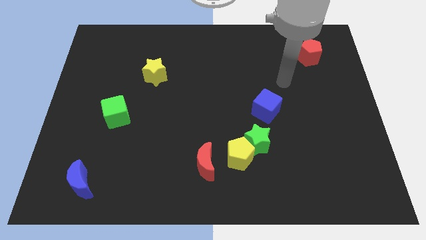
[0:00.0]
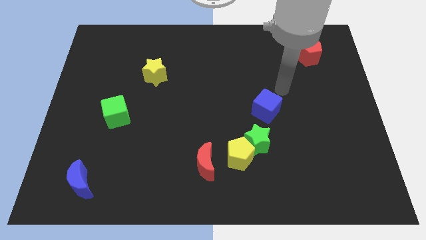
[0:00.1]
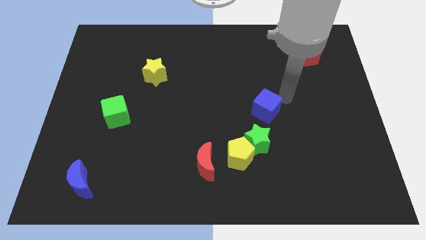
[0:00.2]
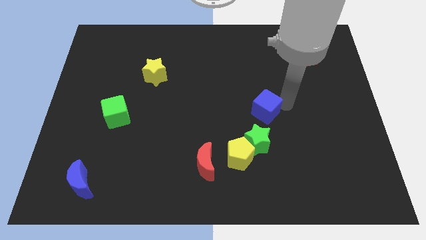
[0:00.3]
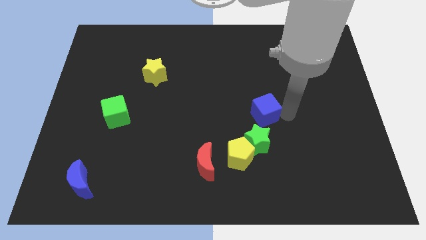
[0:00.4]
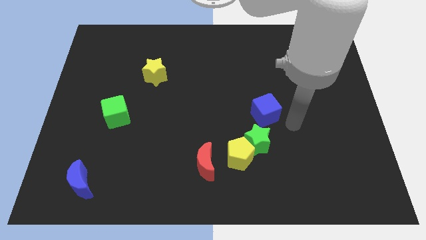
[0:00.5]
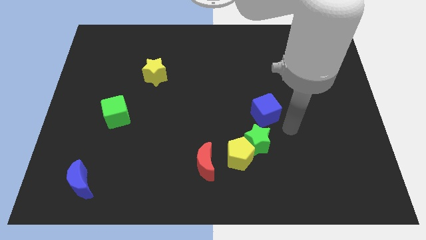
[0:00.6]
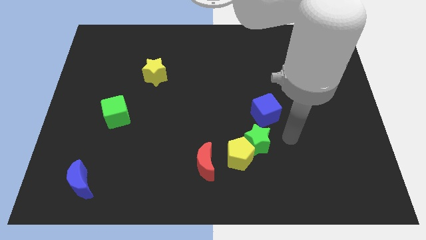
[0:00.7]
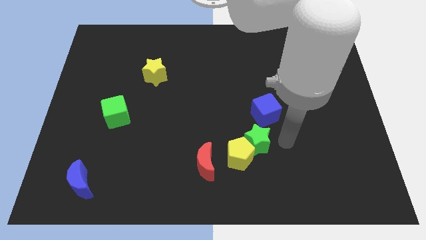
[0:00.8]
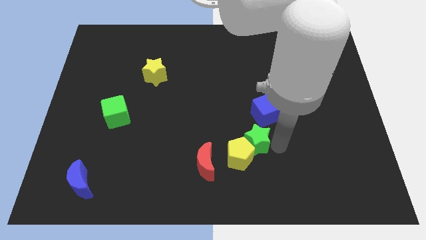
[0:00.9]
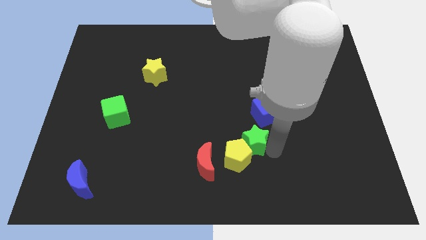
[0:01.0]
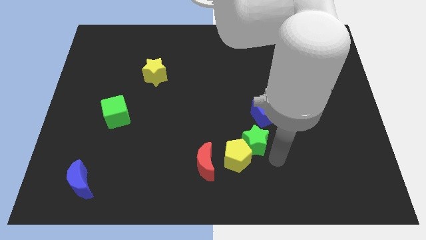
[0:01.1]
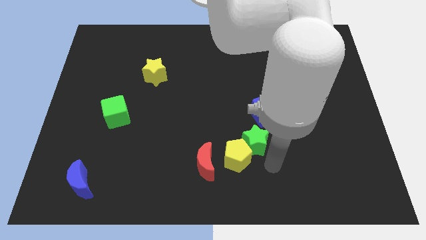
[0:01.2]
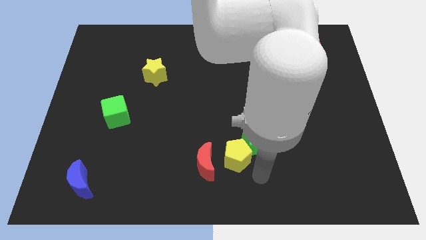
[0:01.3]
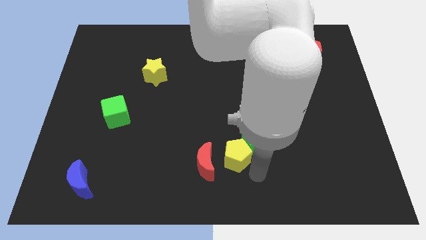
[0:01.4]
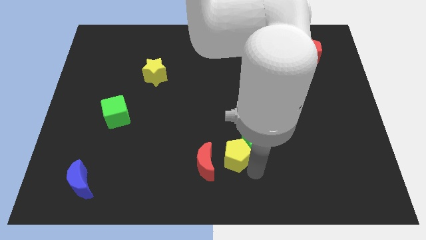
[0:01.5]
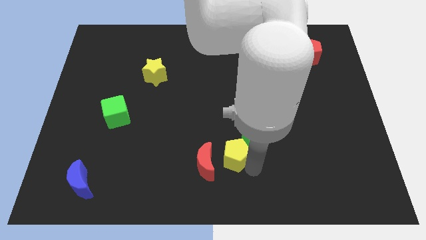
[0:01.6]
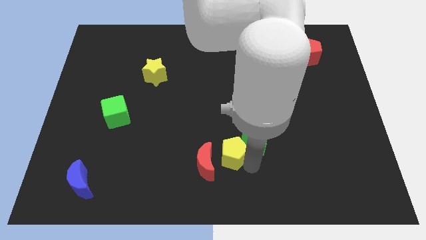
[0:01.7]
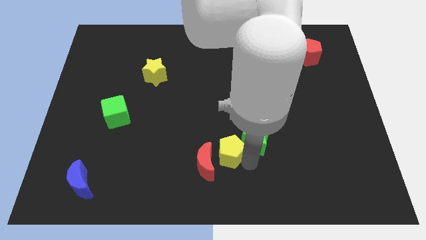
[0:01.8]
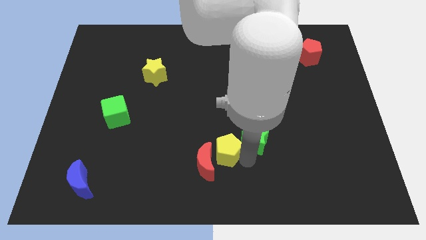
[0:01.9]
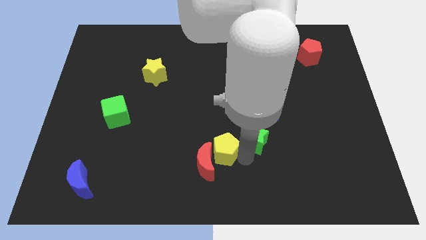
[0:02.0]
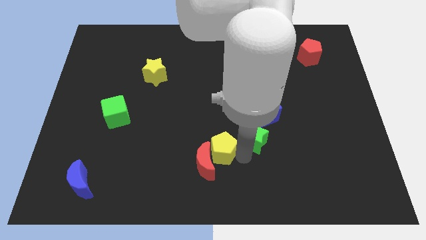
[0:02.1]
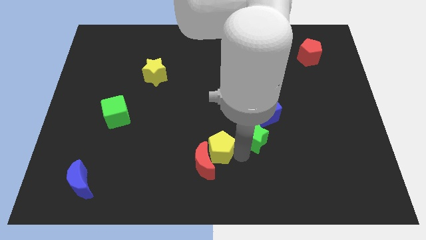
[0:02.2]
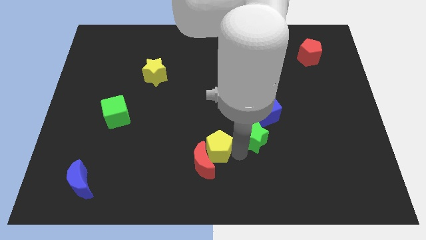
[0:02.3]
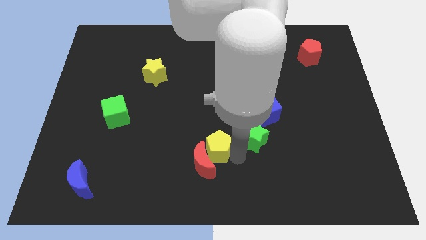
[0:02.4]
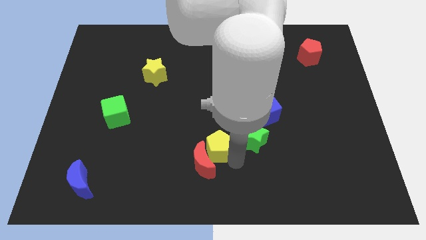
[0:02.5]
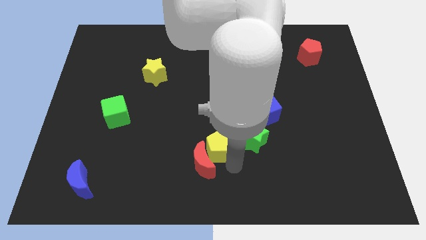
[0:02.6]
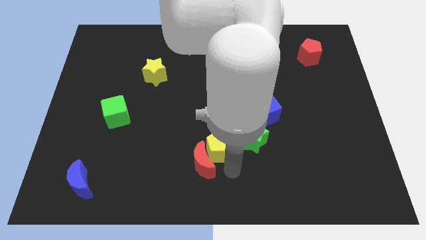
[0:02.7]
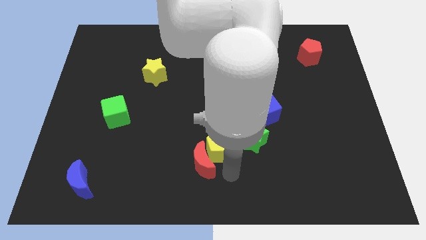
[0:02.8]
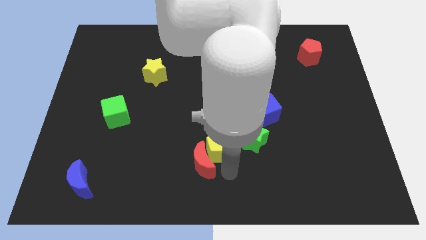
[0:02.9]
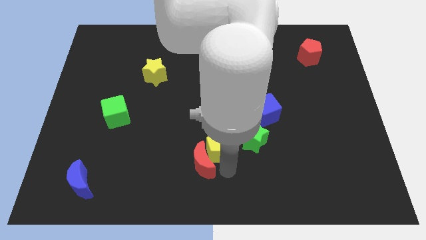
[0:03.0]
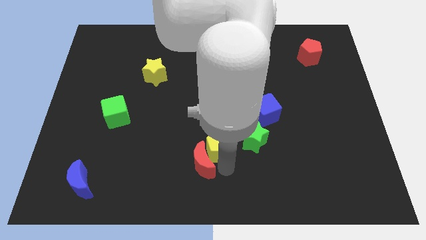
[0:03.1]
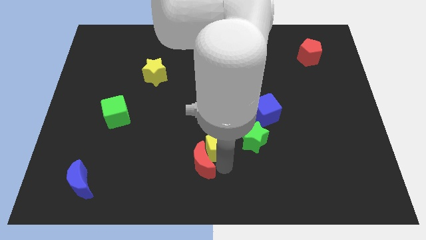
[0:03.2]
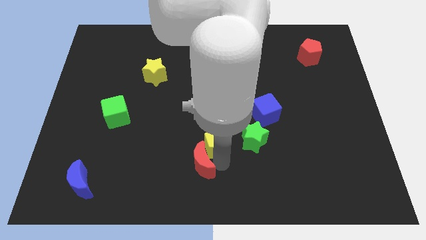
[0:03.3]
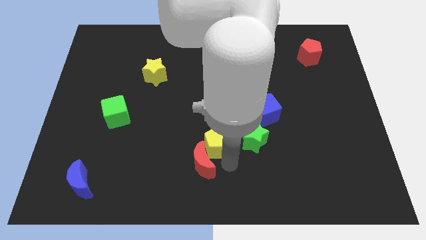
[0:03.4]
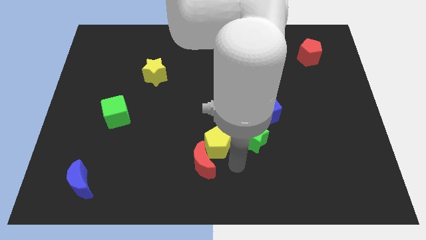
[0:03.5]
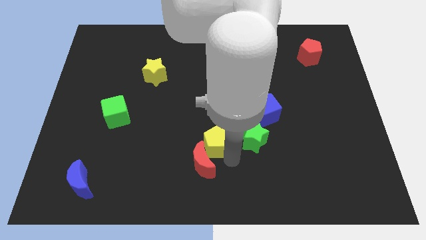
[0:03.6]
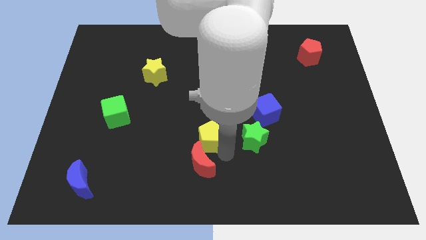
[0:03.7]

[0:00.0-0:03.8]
slightly push the yellow pentagon up and left

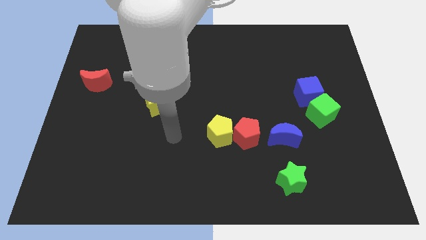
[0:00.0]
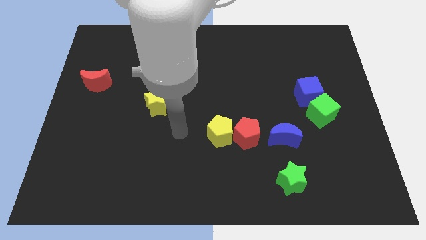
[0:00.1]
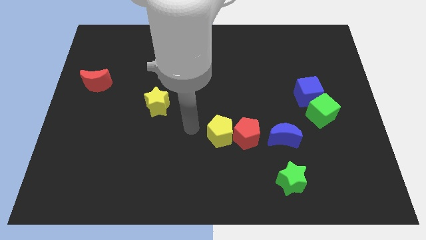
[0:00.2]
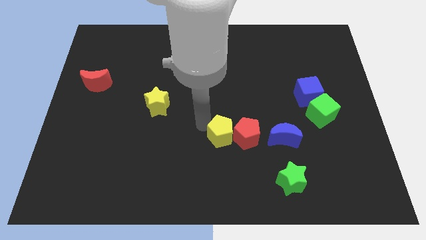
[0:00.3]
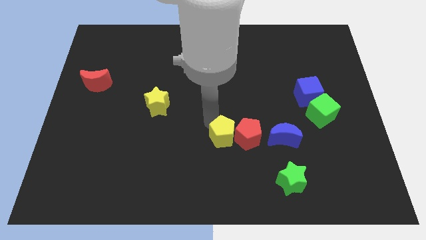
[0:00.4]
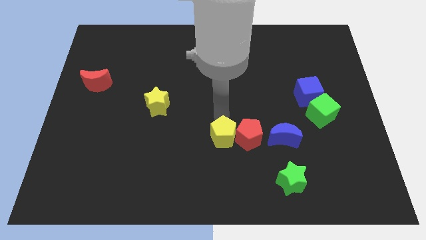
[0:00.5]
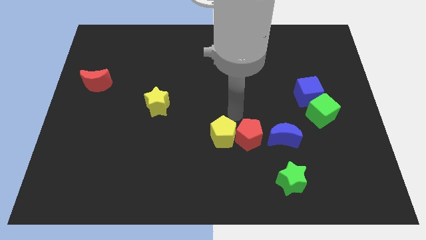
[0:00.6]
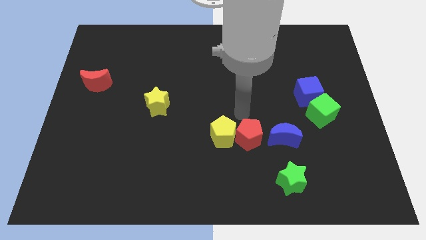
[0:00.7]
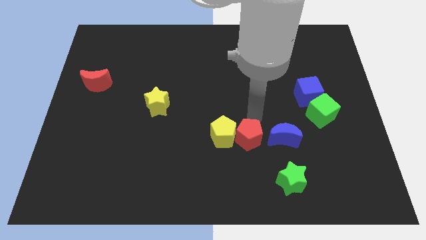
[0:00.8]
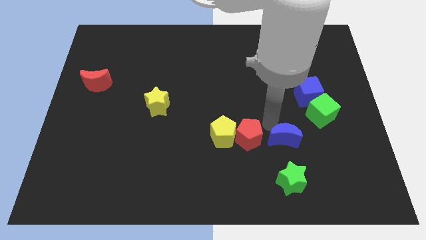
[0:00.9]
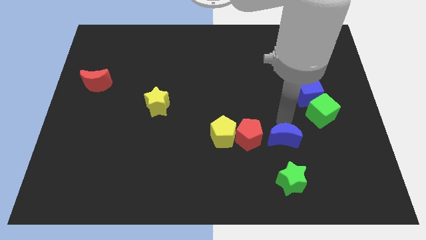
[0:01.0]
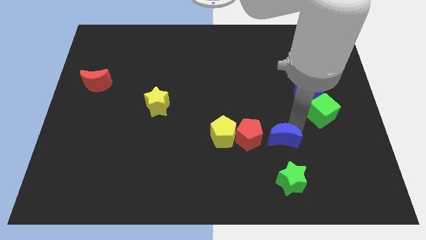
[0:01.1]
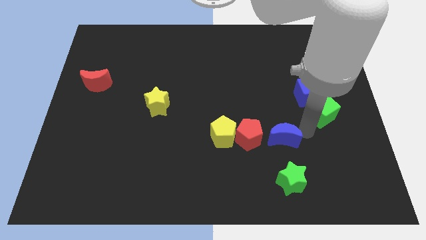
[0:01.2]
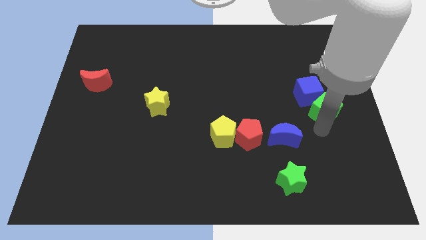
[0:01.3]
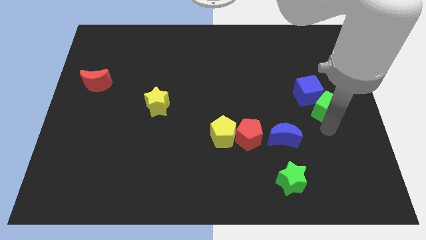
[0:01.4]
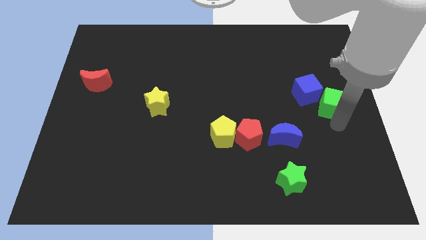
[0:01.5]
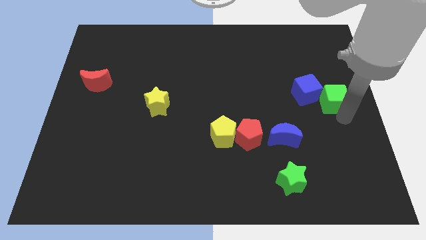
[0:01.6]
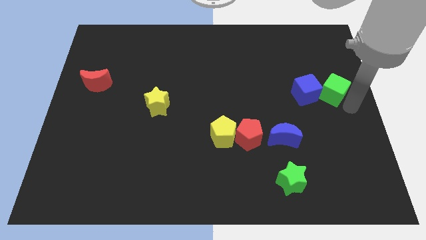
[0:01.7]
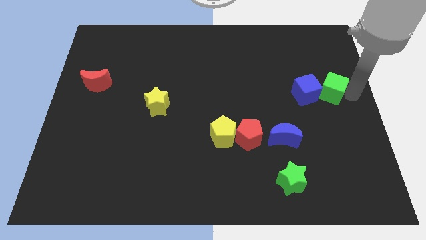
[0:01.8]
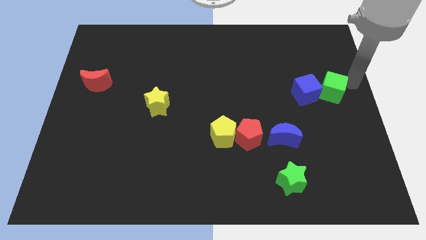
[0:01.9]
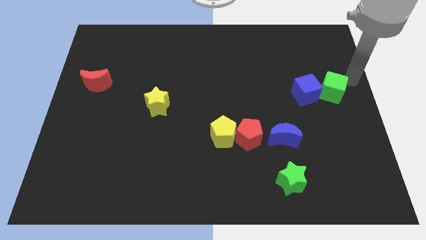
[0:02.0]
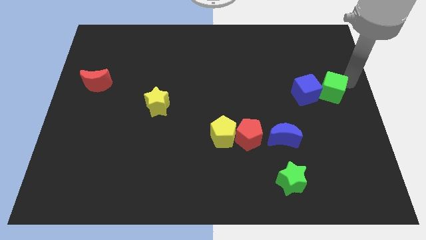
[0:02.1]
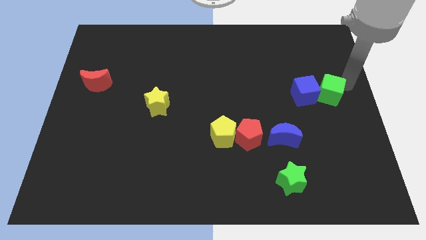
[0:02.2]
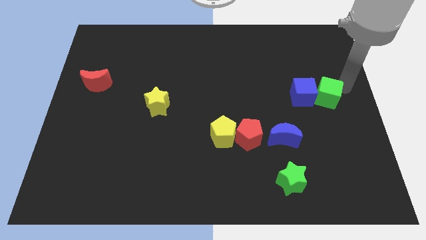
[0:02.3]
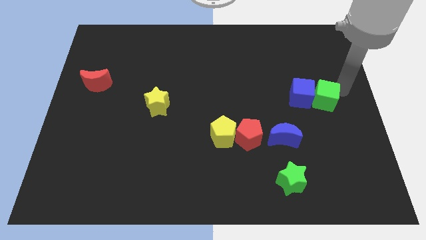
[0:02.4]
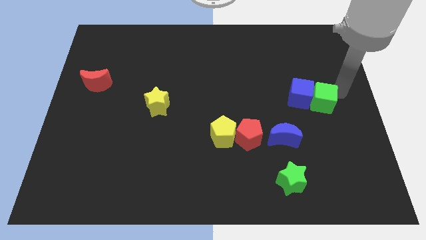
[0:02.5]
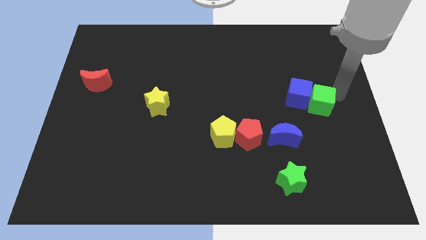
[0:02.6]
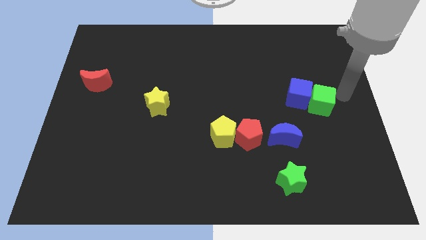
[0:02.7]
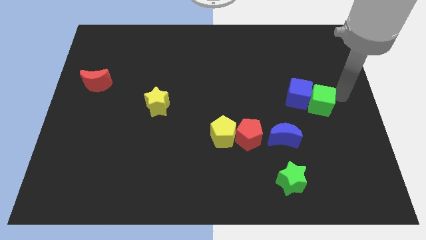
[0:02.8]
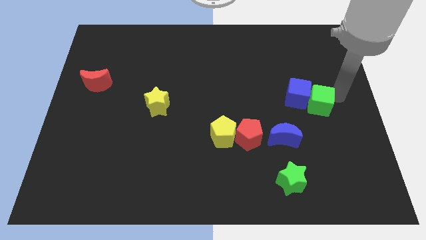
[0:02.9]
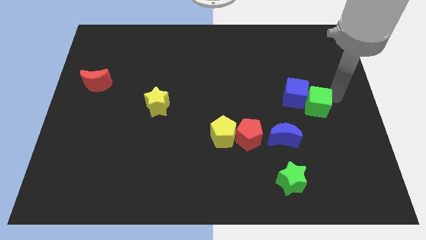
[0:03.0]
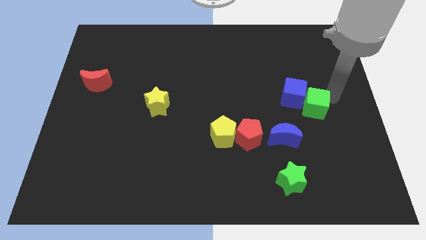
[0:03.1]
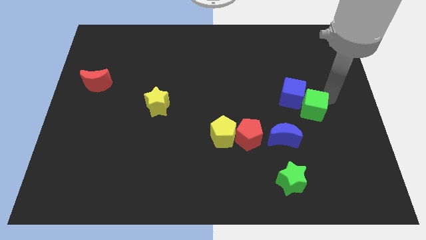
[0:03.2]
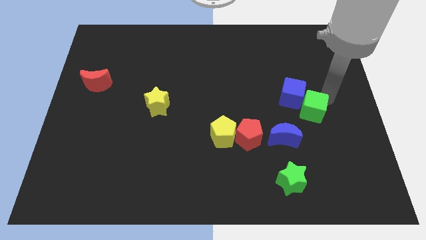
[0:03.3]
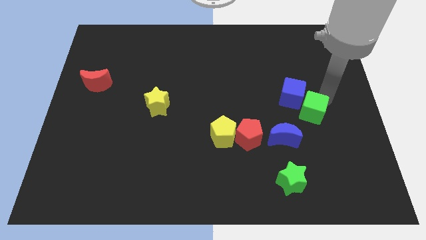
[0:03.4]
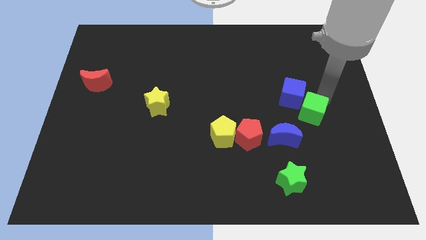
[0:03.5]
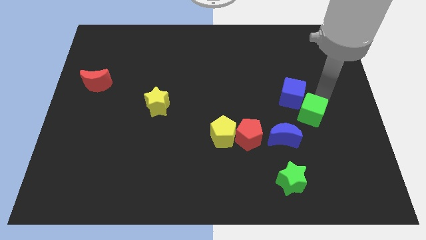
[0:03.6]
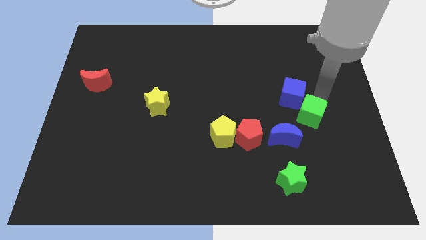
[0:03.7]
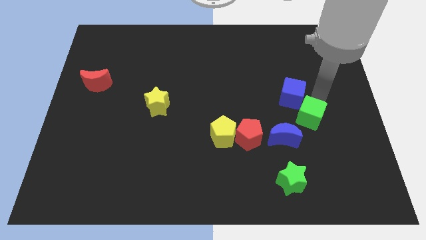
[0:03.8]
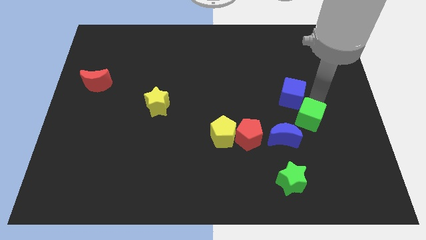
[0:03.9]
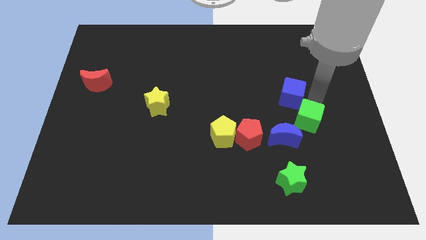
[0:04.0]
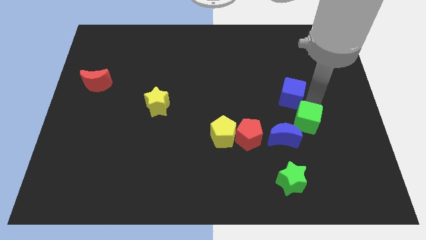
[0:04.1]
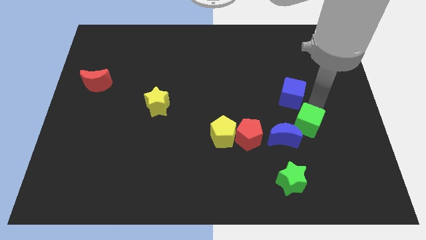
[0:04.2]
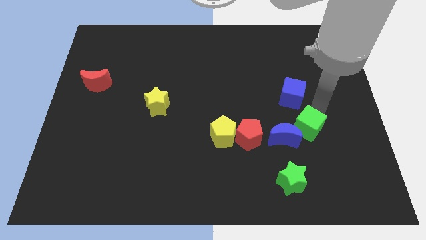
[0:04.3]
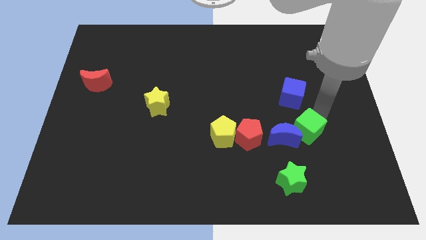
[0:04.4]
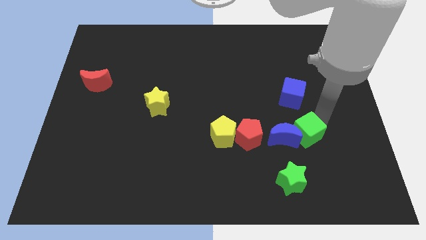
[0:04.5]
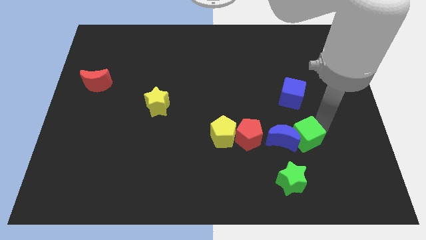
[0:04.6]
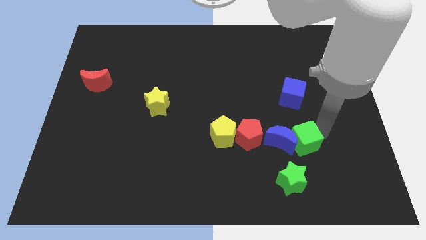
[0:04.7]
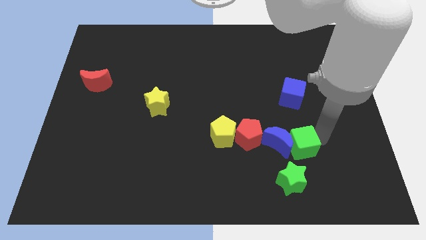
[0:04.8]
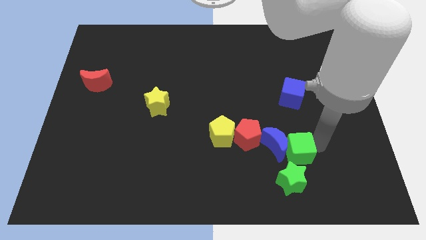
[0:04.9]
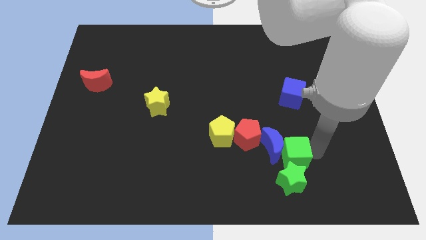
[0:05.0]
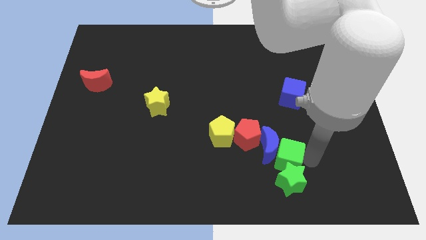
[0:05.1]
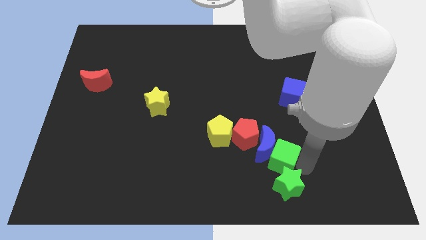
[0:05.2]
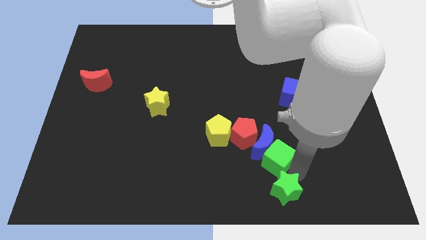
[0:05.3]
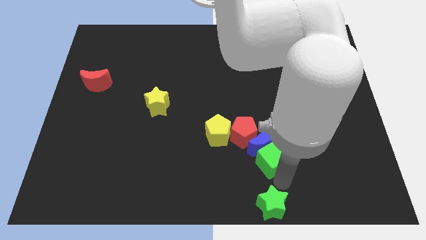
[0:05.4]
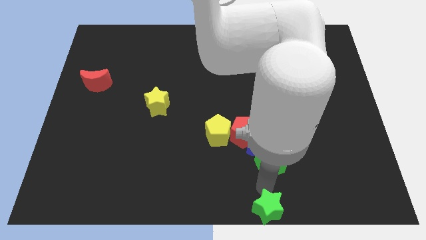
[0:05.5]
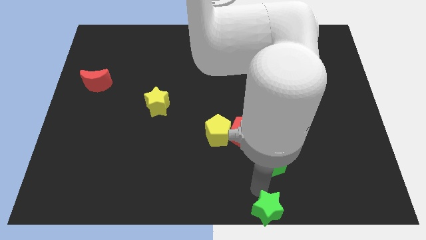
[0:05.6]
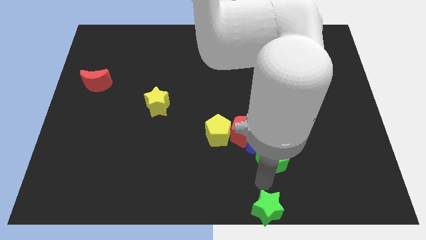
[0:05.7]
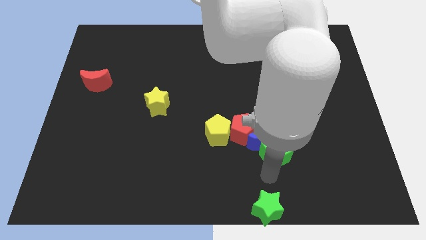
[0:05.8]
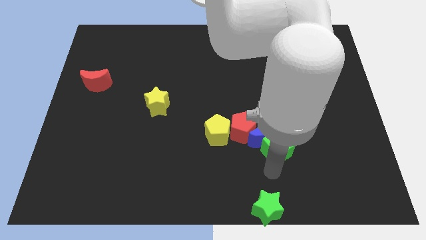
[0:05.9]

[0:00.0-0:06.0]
move the green cube a little bit to the left
